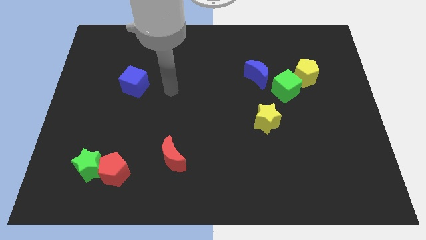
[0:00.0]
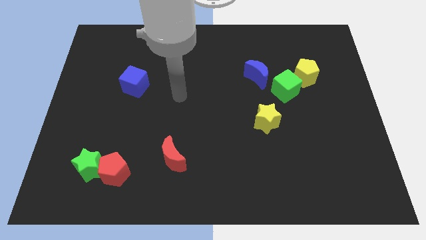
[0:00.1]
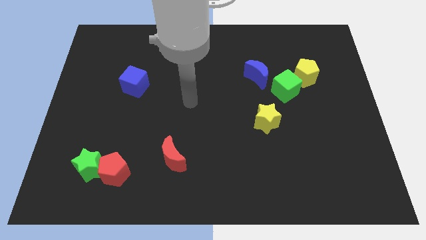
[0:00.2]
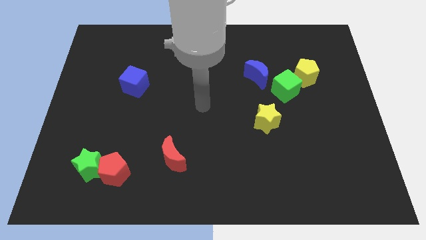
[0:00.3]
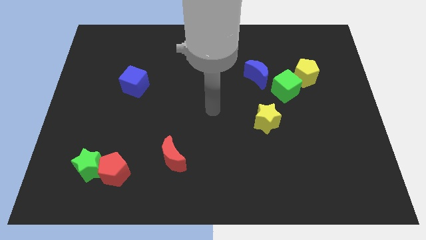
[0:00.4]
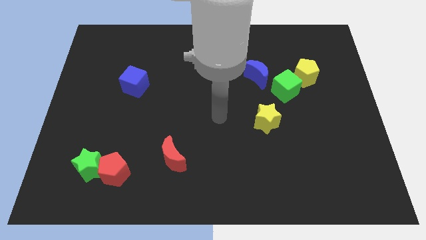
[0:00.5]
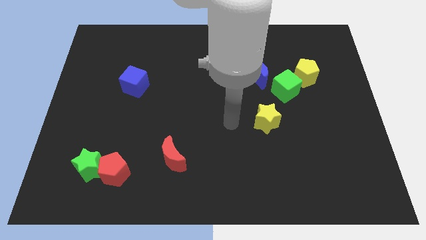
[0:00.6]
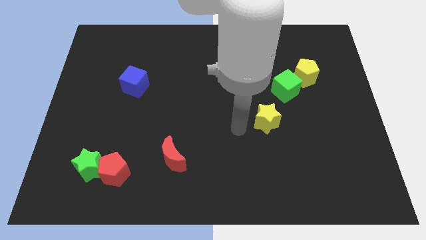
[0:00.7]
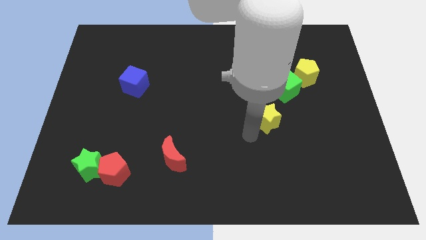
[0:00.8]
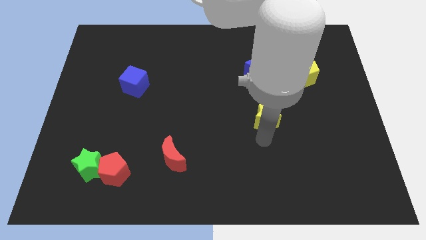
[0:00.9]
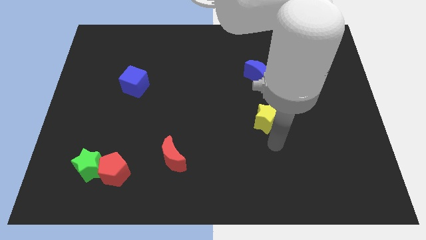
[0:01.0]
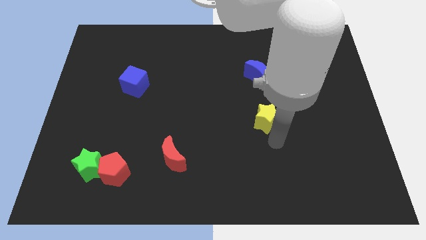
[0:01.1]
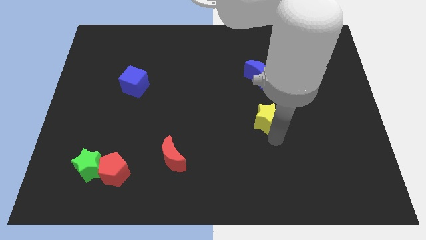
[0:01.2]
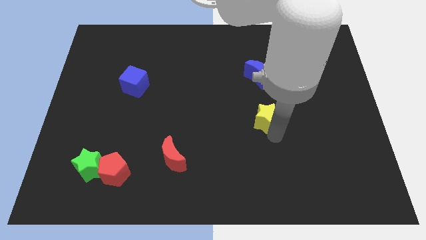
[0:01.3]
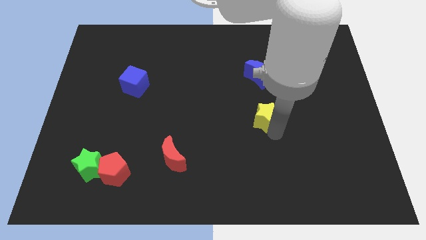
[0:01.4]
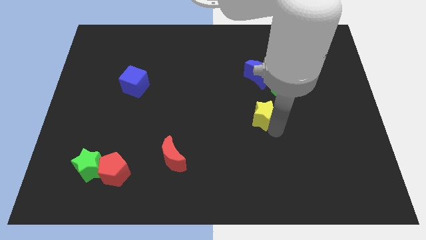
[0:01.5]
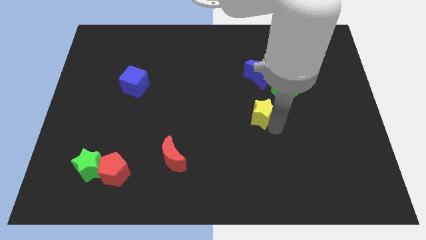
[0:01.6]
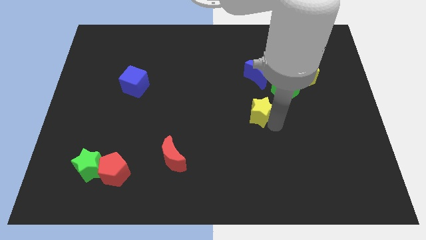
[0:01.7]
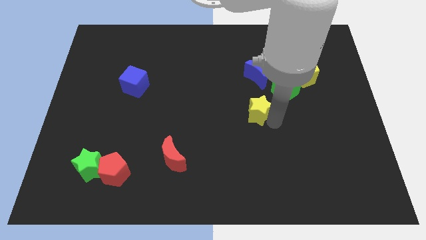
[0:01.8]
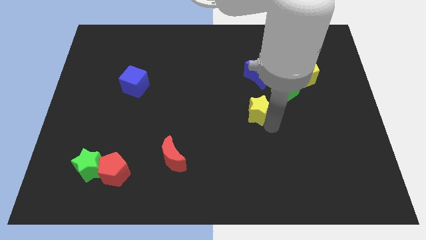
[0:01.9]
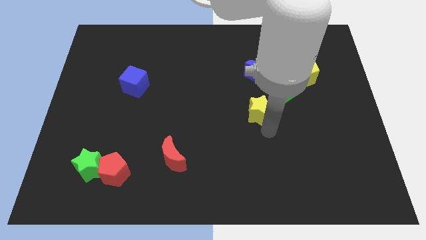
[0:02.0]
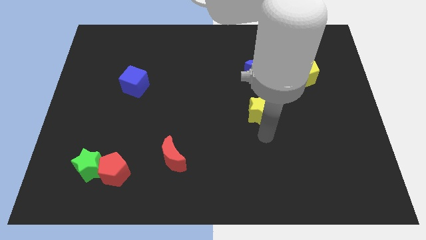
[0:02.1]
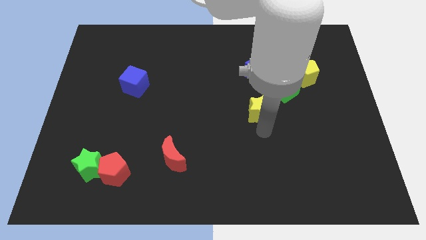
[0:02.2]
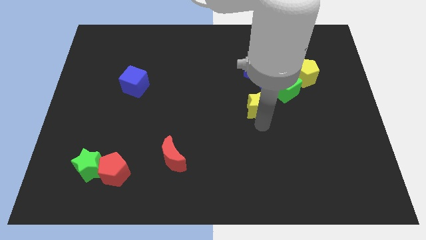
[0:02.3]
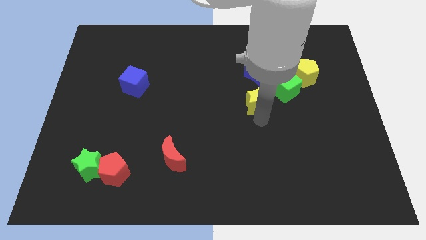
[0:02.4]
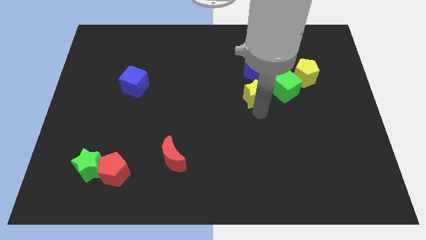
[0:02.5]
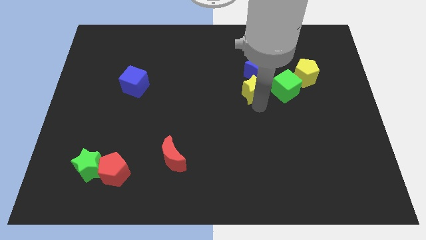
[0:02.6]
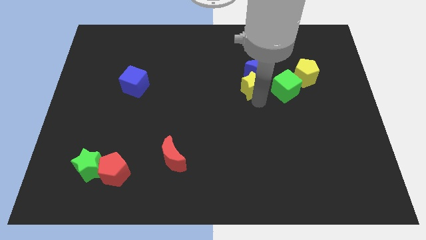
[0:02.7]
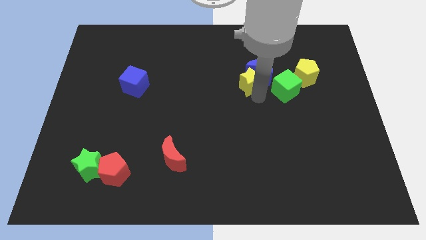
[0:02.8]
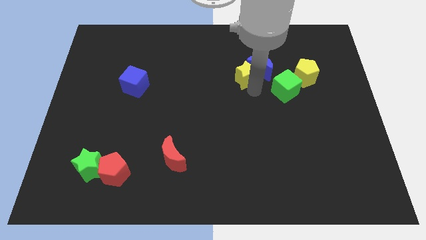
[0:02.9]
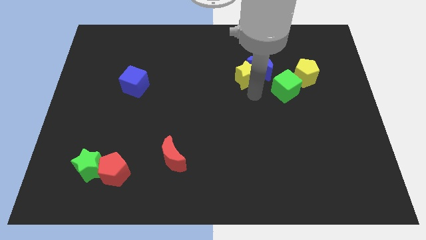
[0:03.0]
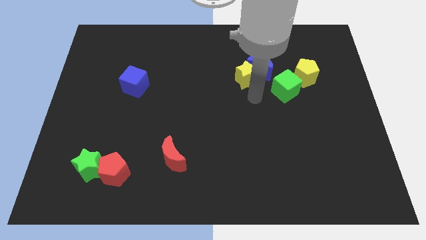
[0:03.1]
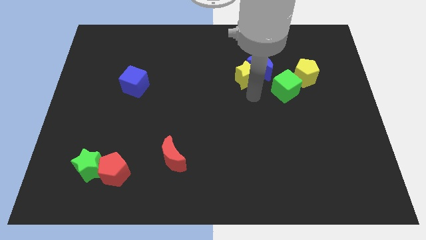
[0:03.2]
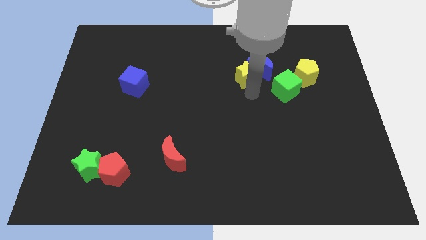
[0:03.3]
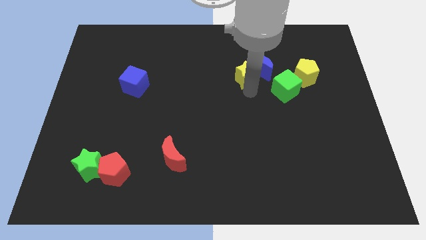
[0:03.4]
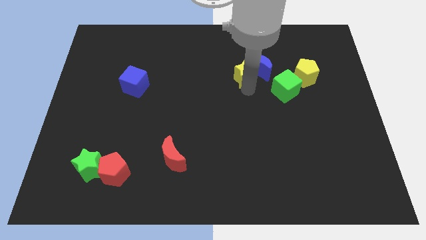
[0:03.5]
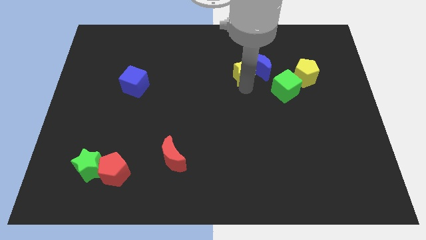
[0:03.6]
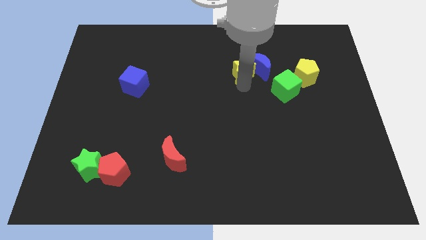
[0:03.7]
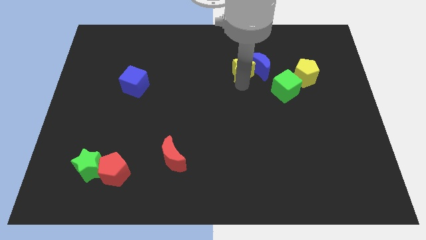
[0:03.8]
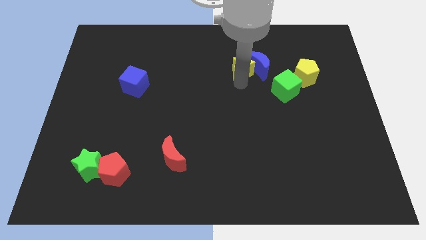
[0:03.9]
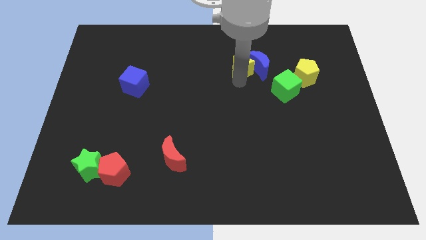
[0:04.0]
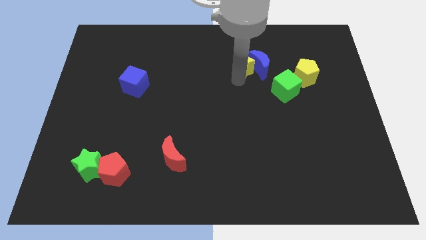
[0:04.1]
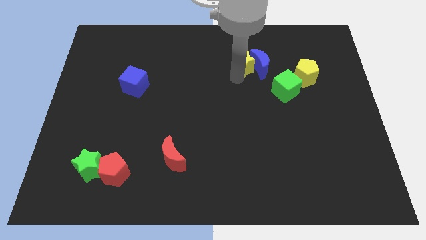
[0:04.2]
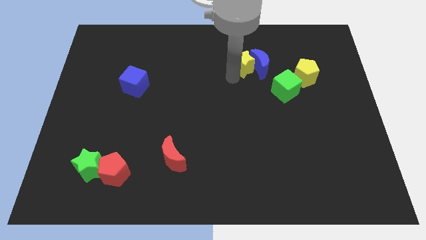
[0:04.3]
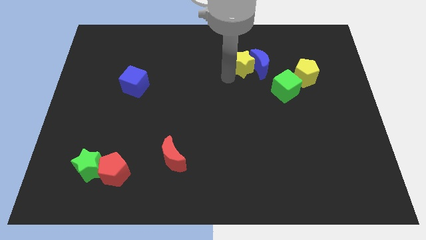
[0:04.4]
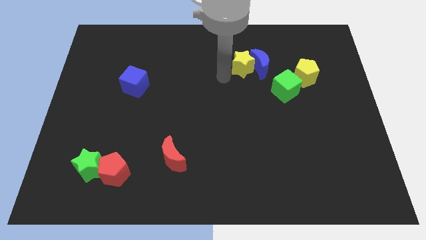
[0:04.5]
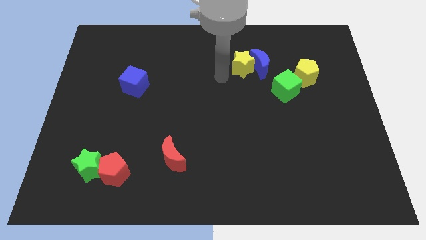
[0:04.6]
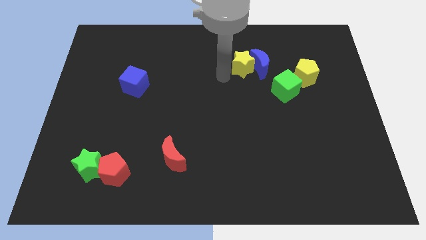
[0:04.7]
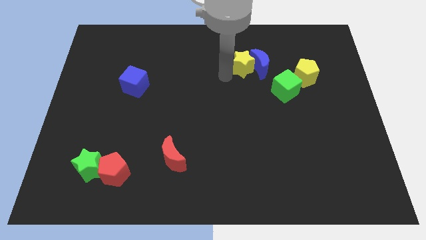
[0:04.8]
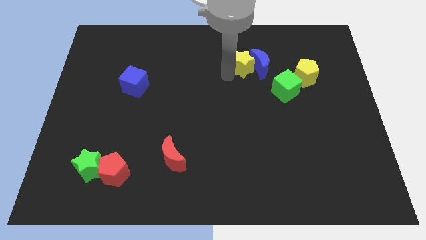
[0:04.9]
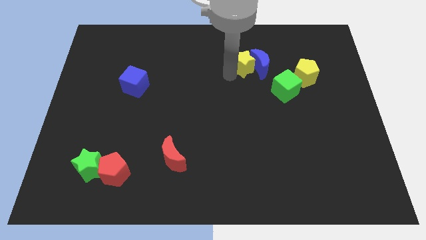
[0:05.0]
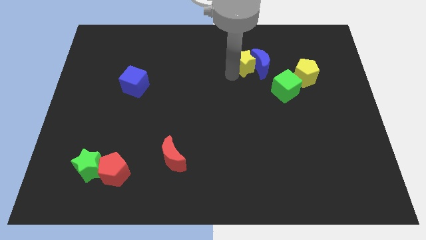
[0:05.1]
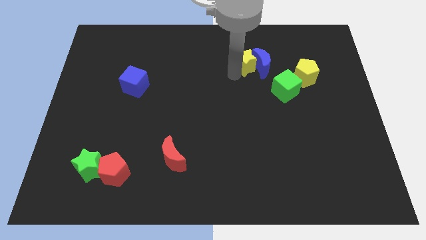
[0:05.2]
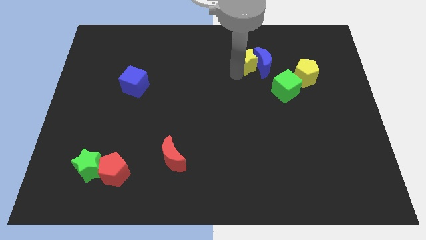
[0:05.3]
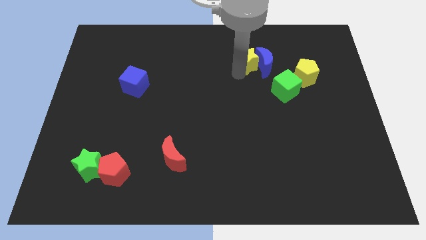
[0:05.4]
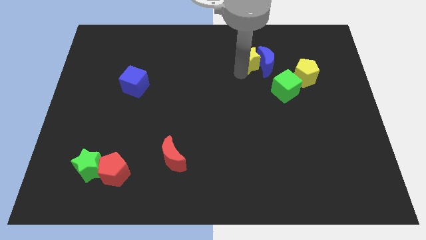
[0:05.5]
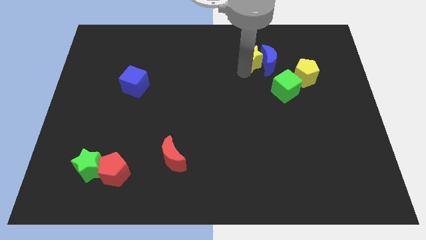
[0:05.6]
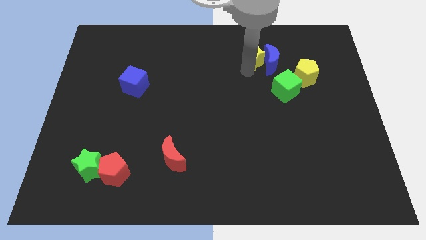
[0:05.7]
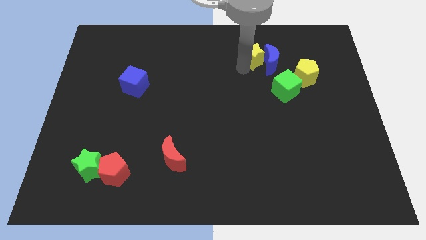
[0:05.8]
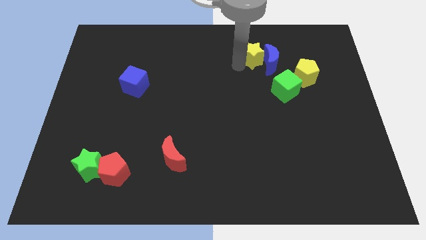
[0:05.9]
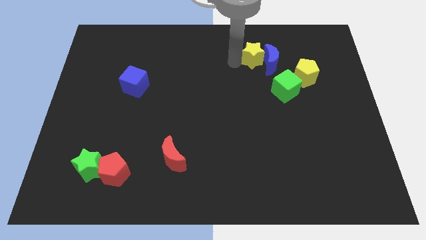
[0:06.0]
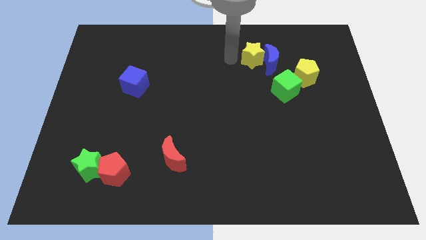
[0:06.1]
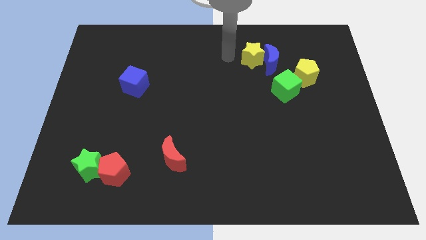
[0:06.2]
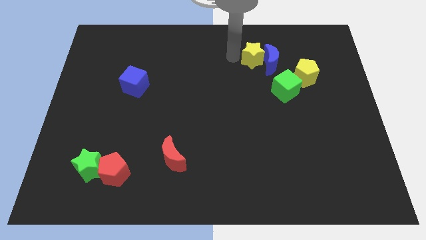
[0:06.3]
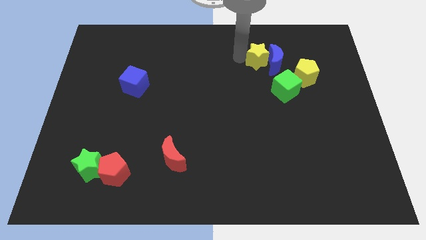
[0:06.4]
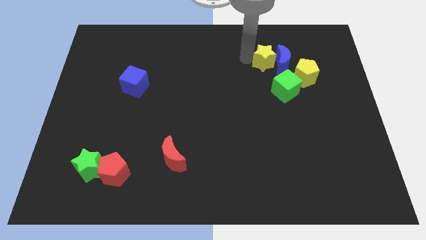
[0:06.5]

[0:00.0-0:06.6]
put the yellow star to the top left of the yellow pentagon

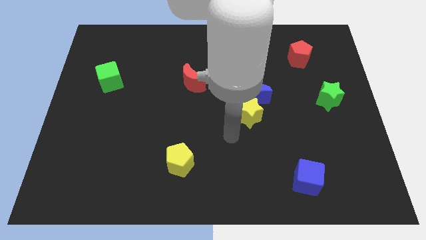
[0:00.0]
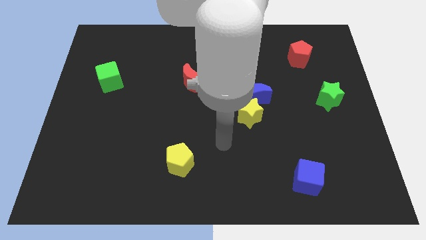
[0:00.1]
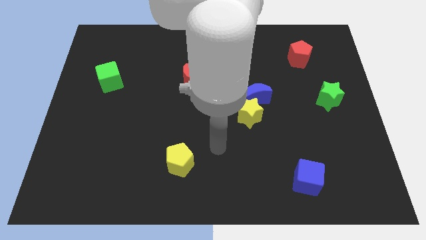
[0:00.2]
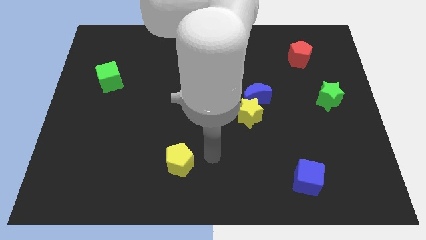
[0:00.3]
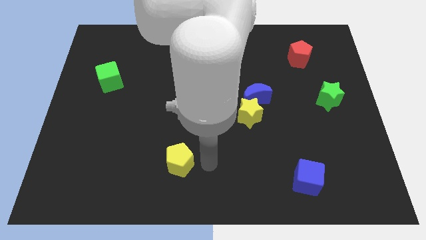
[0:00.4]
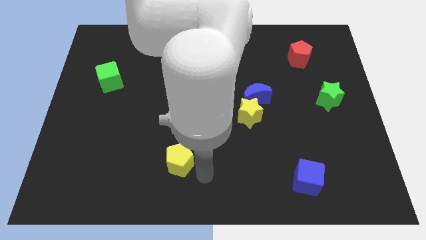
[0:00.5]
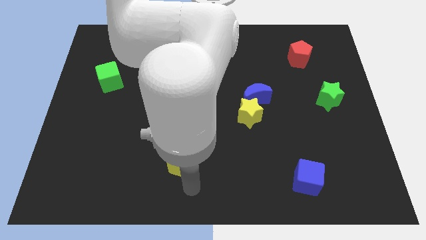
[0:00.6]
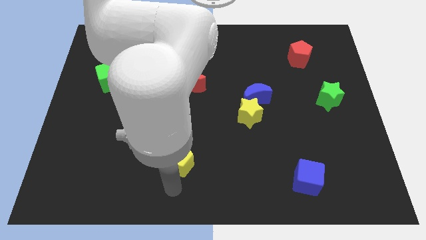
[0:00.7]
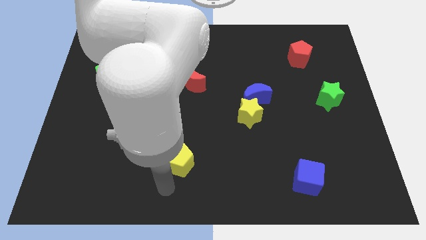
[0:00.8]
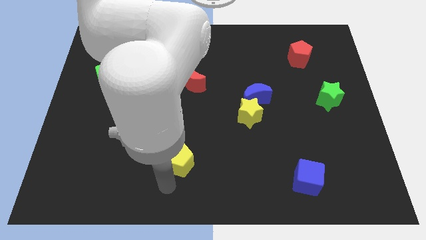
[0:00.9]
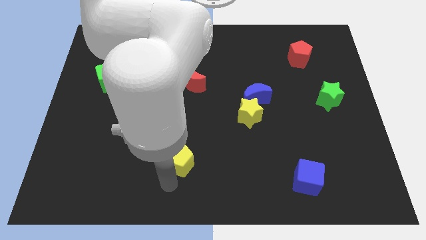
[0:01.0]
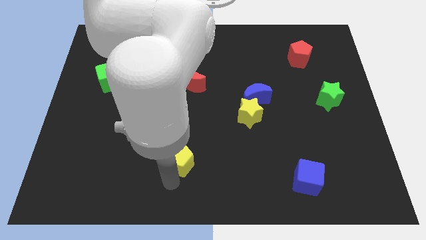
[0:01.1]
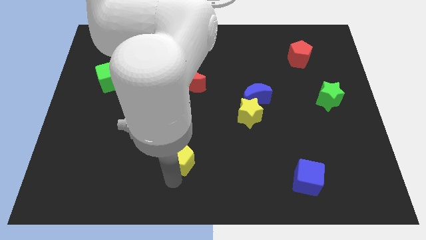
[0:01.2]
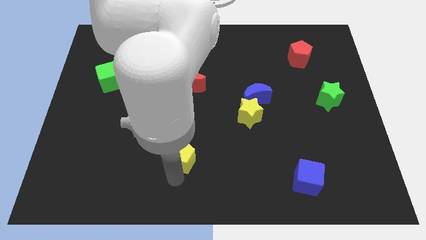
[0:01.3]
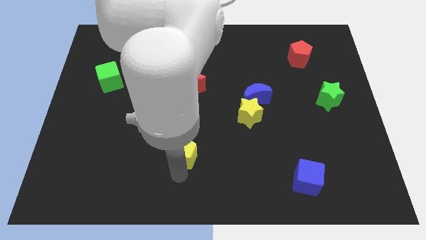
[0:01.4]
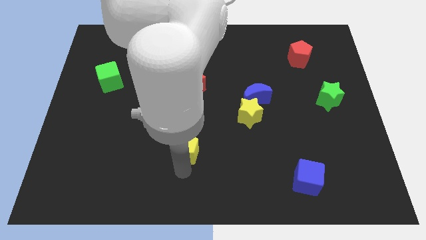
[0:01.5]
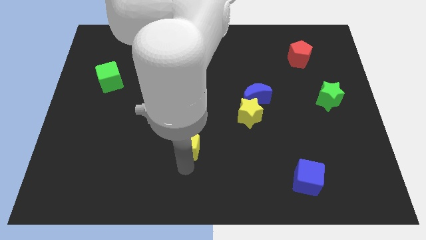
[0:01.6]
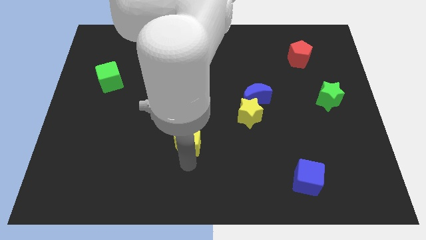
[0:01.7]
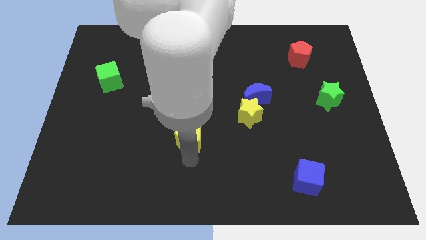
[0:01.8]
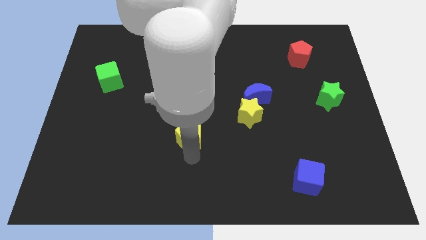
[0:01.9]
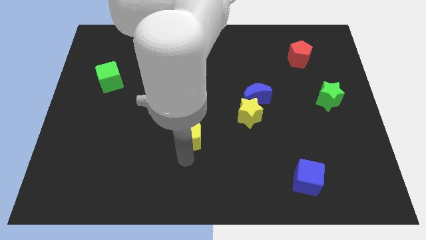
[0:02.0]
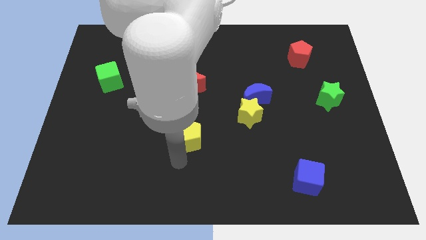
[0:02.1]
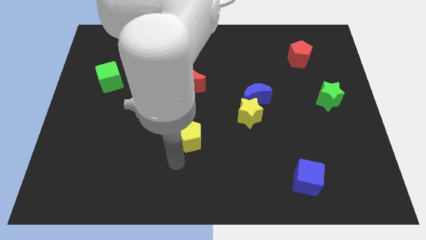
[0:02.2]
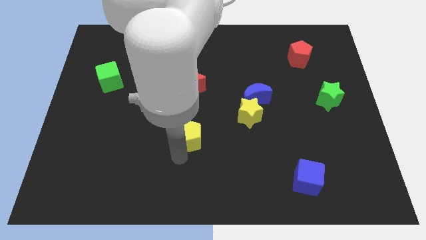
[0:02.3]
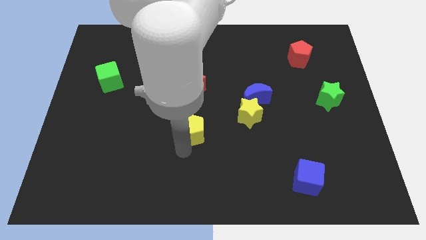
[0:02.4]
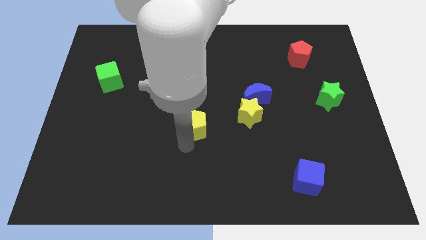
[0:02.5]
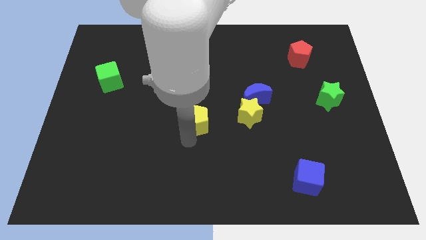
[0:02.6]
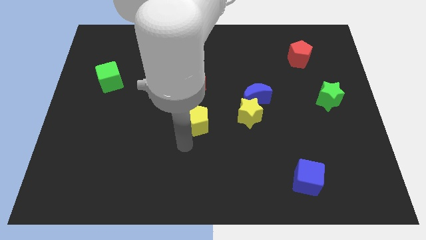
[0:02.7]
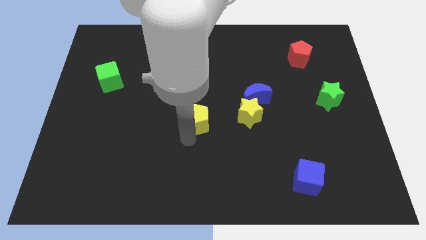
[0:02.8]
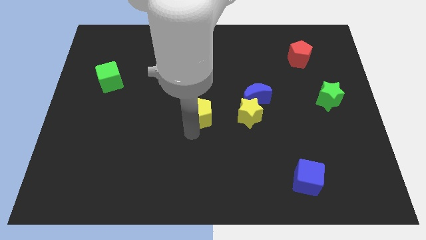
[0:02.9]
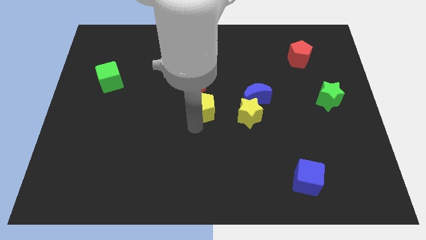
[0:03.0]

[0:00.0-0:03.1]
move the yellow pentagon to the left of the blue moon
